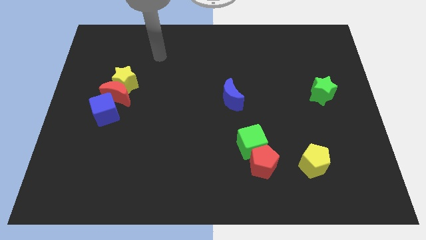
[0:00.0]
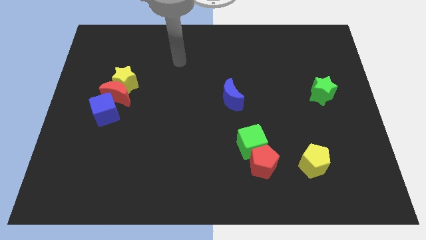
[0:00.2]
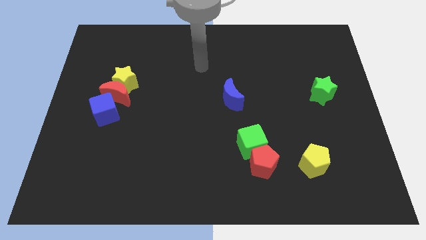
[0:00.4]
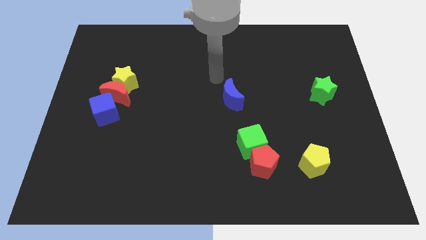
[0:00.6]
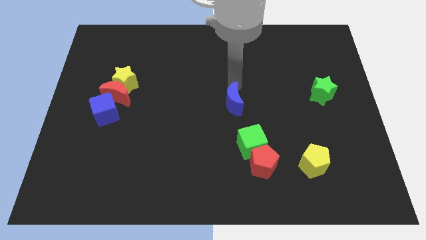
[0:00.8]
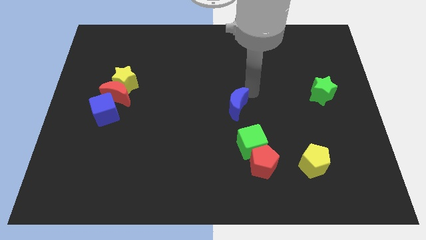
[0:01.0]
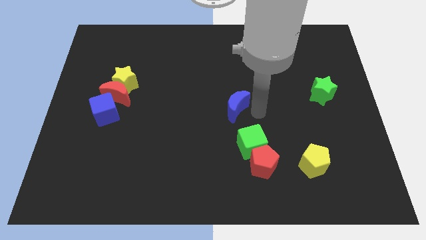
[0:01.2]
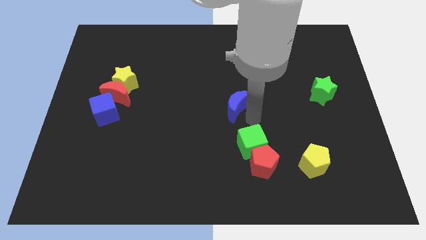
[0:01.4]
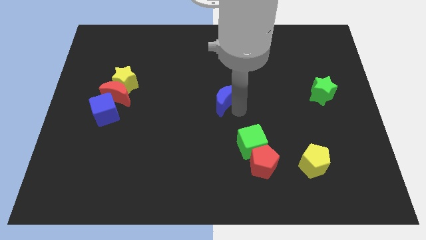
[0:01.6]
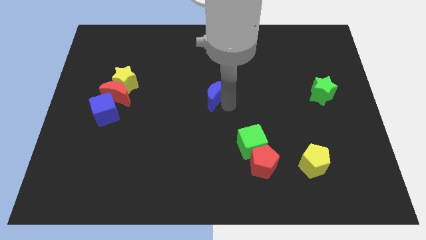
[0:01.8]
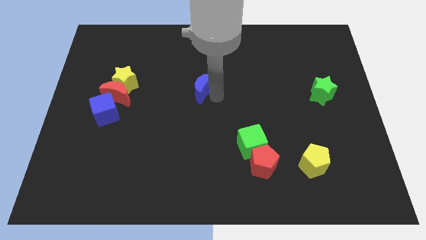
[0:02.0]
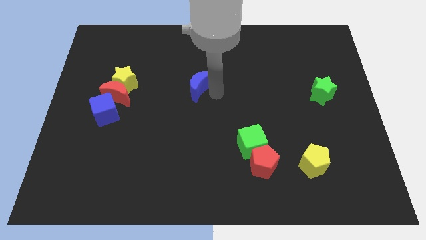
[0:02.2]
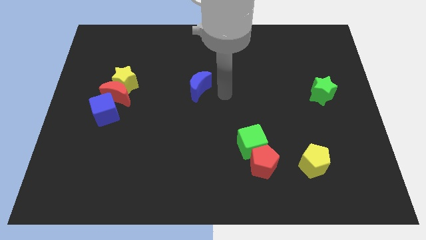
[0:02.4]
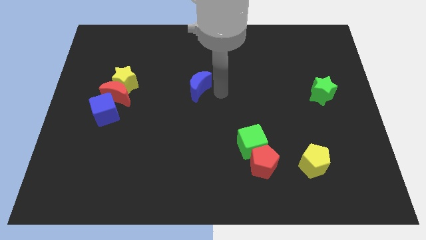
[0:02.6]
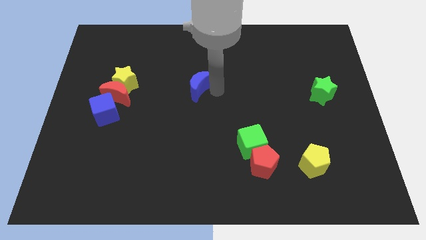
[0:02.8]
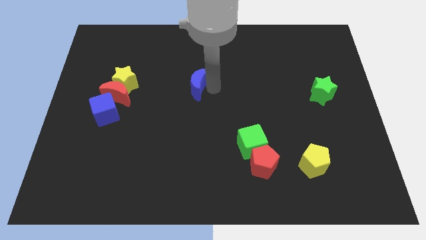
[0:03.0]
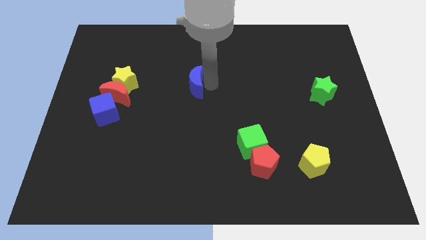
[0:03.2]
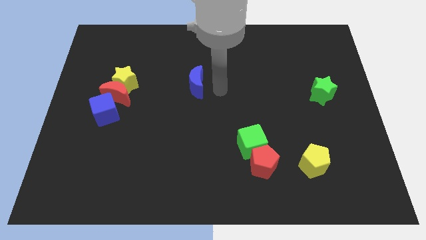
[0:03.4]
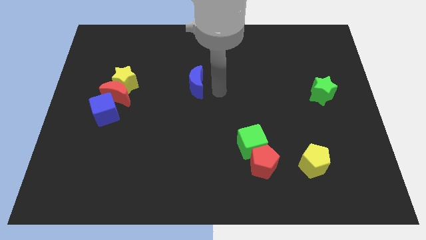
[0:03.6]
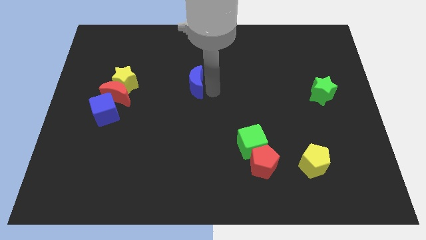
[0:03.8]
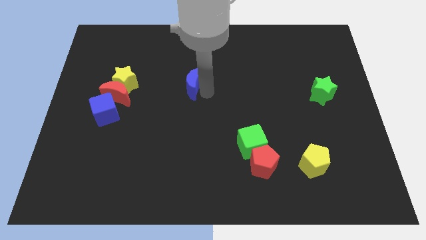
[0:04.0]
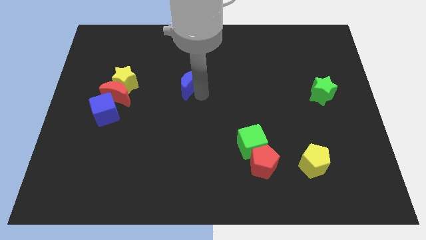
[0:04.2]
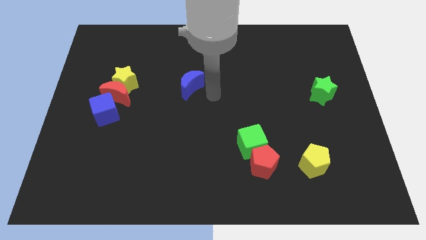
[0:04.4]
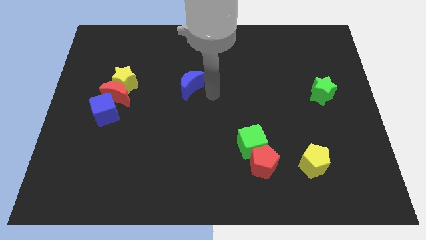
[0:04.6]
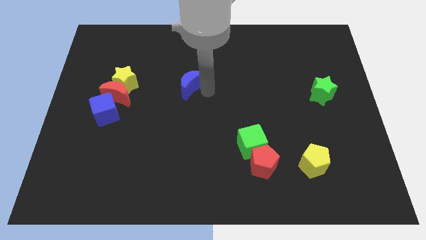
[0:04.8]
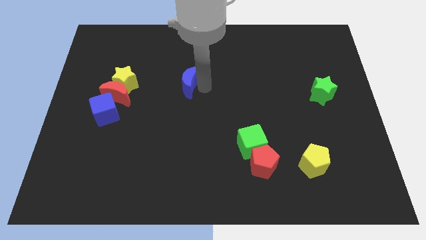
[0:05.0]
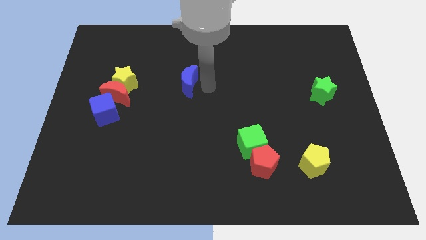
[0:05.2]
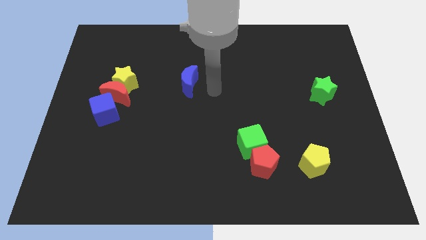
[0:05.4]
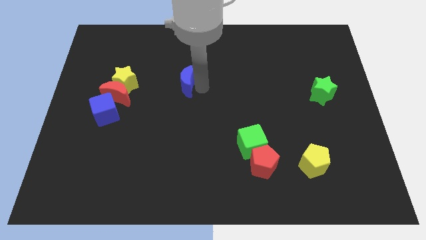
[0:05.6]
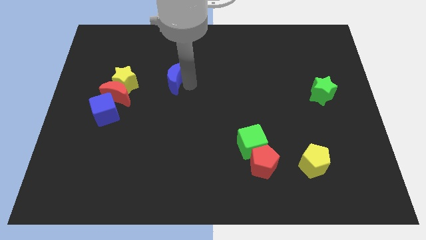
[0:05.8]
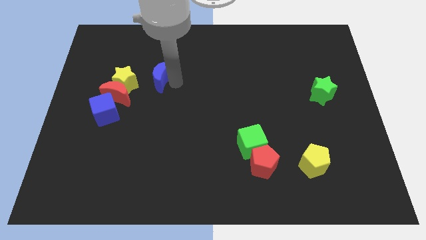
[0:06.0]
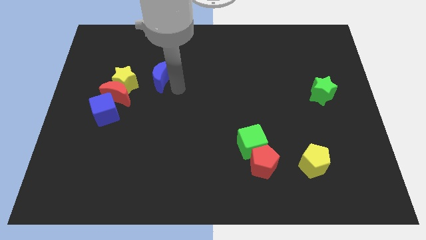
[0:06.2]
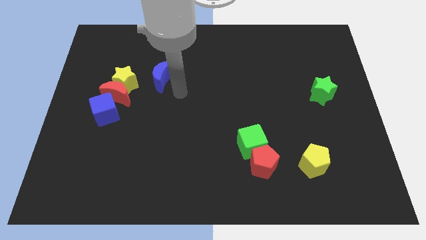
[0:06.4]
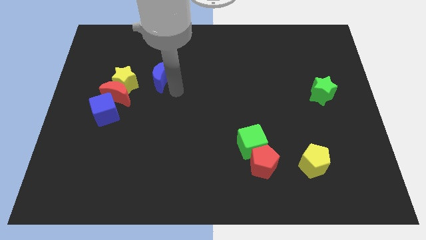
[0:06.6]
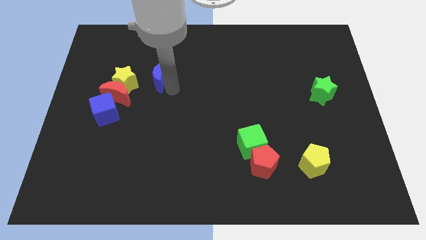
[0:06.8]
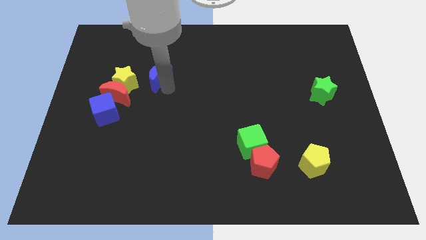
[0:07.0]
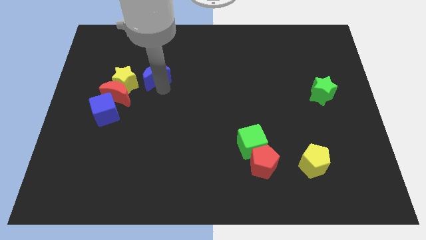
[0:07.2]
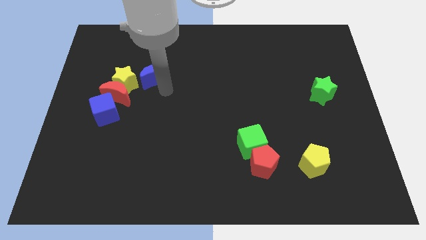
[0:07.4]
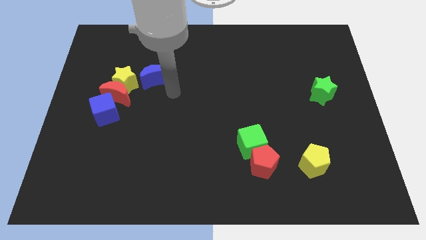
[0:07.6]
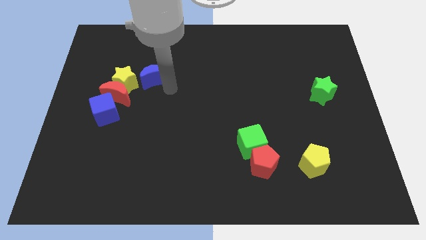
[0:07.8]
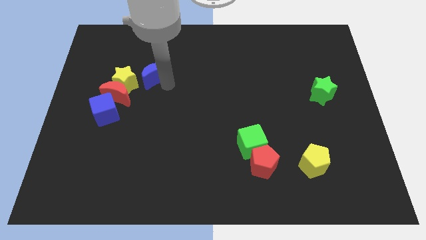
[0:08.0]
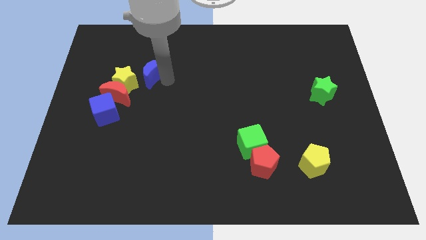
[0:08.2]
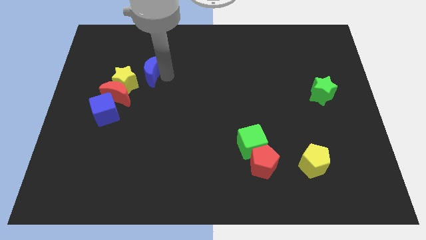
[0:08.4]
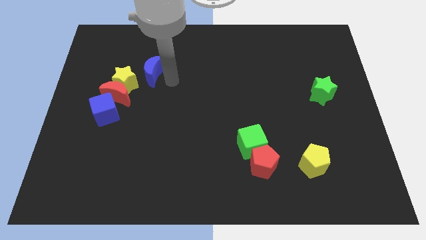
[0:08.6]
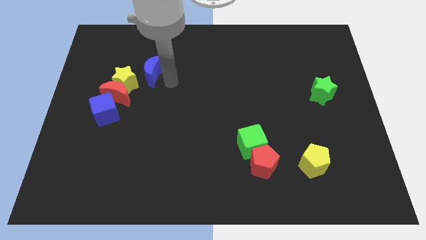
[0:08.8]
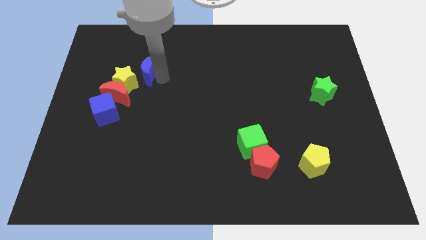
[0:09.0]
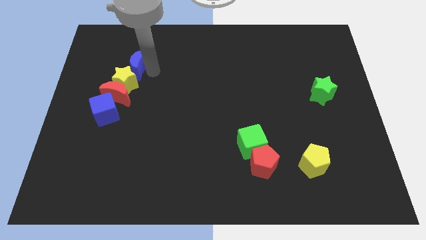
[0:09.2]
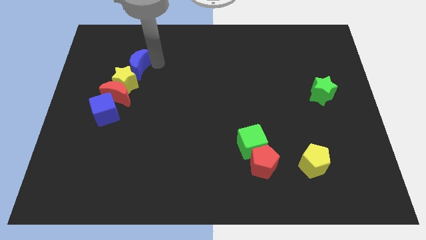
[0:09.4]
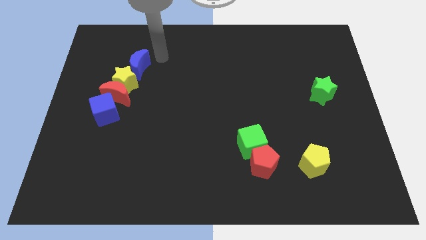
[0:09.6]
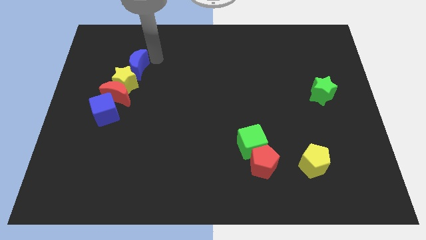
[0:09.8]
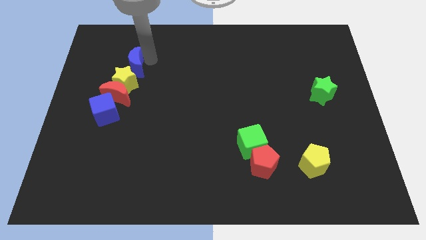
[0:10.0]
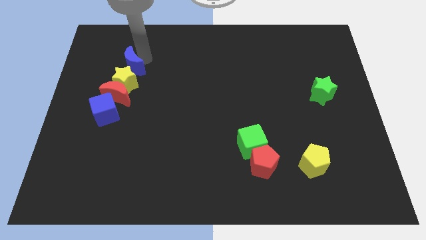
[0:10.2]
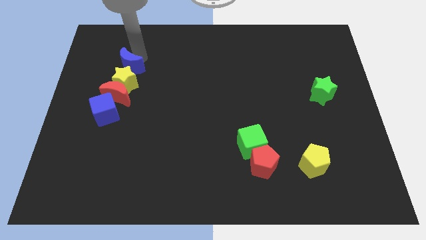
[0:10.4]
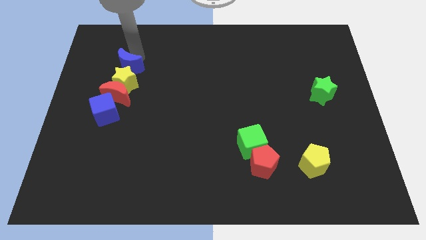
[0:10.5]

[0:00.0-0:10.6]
put the blue moon to the top side of the blue cube
